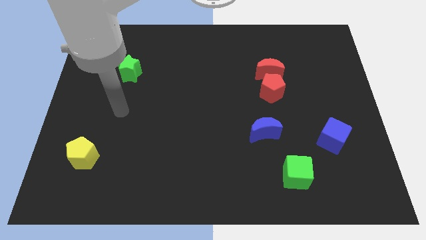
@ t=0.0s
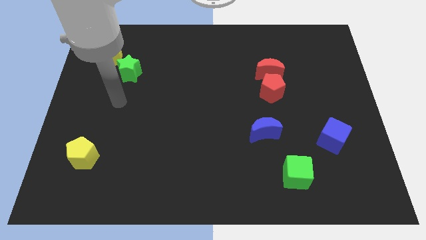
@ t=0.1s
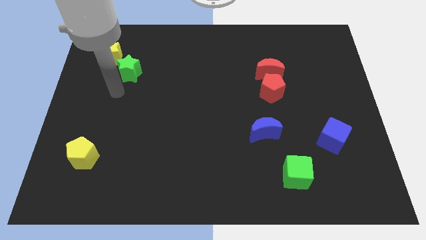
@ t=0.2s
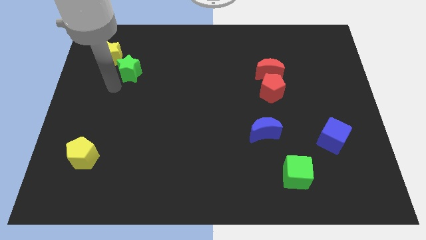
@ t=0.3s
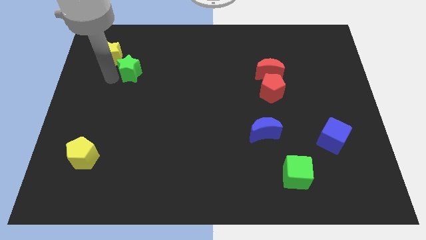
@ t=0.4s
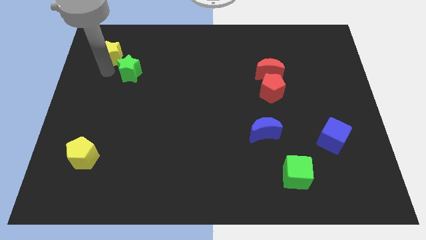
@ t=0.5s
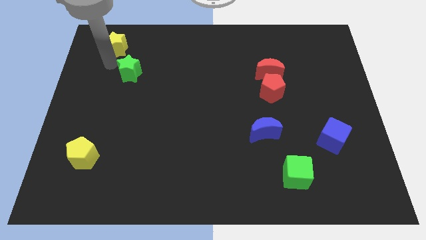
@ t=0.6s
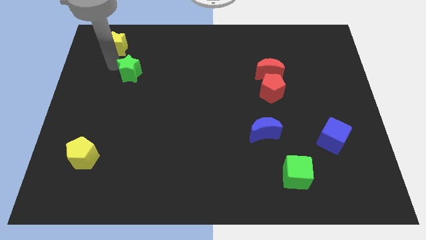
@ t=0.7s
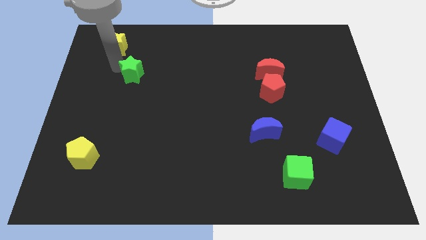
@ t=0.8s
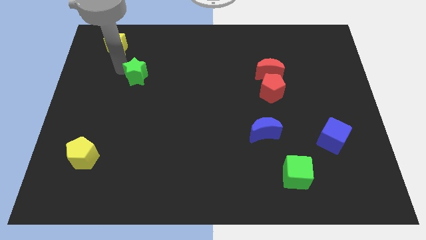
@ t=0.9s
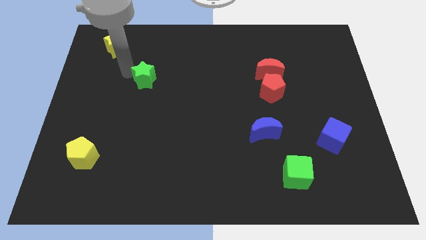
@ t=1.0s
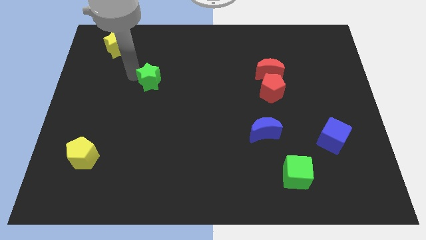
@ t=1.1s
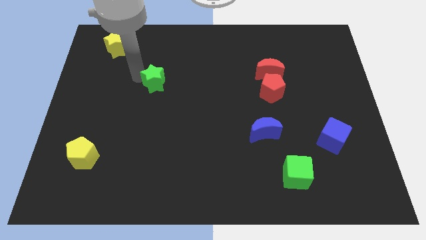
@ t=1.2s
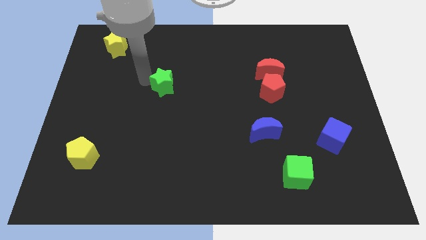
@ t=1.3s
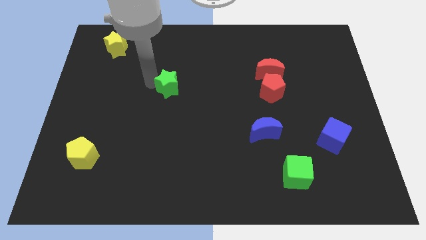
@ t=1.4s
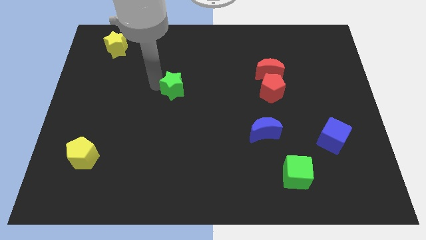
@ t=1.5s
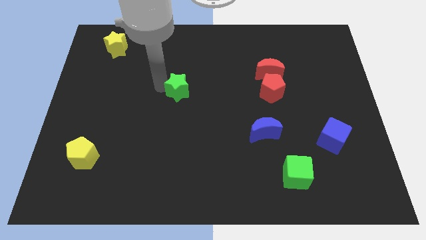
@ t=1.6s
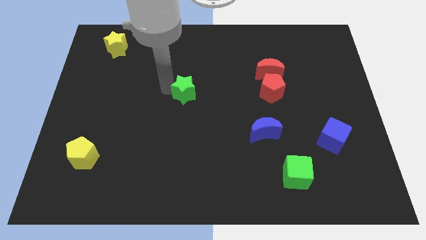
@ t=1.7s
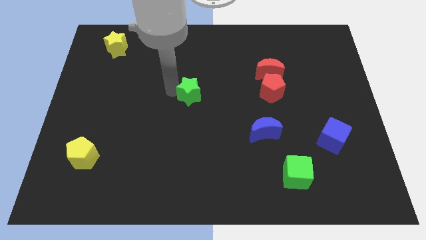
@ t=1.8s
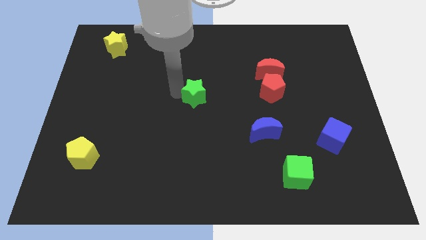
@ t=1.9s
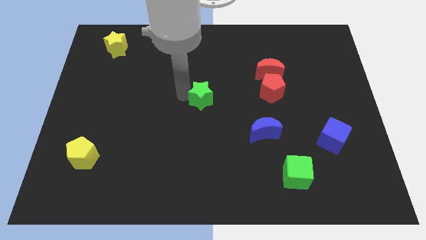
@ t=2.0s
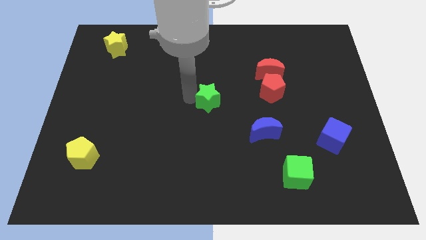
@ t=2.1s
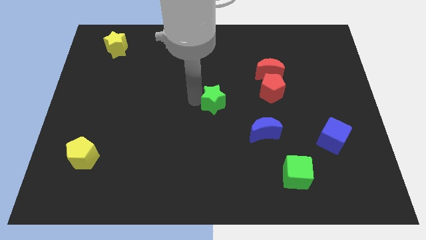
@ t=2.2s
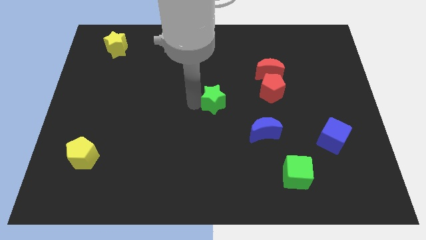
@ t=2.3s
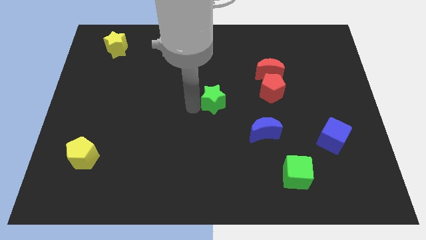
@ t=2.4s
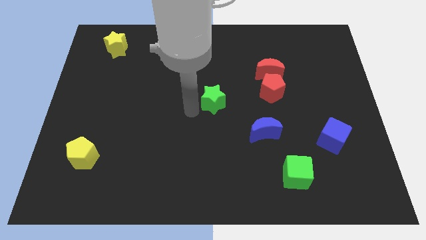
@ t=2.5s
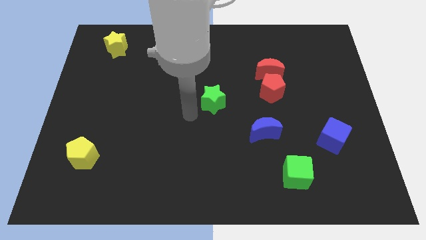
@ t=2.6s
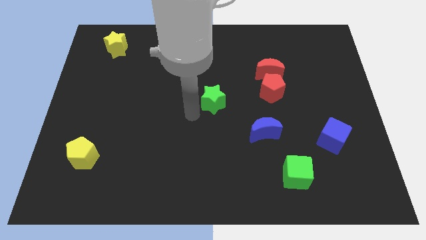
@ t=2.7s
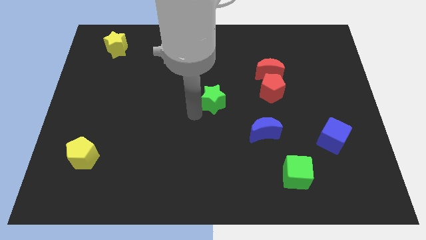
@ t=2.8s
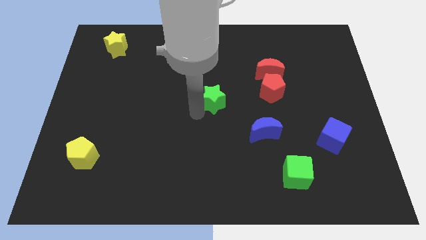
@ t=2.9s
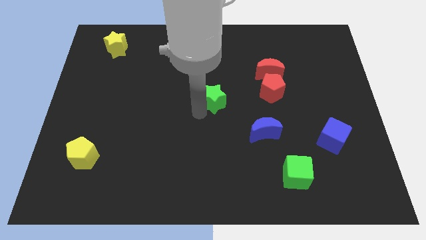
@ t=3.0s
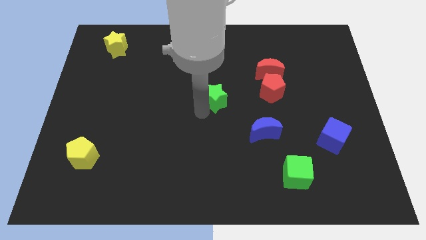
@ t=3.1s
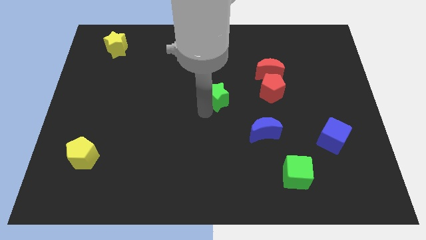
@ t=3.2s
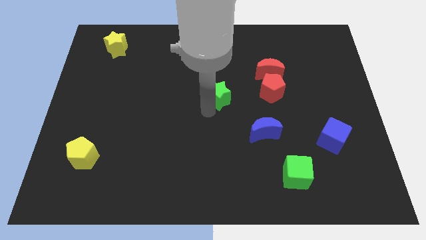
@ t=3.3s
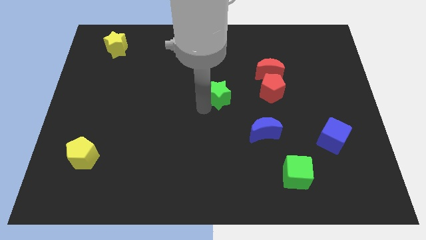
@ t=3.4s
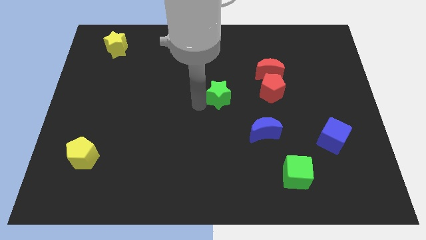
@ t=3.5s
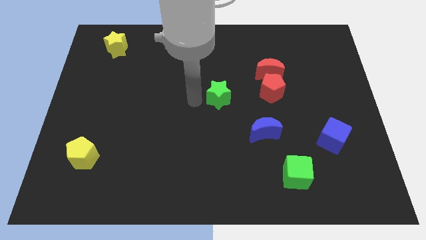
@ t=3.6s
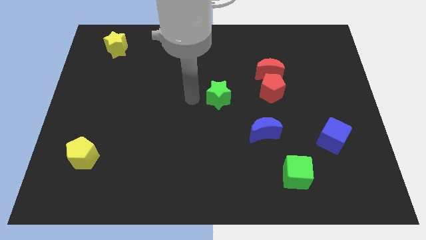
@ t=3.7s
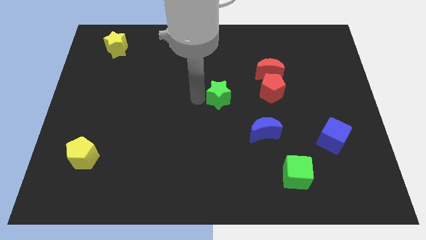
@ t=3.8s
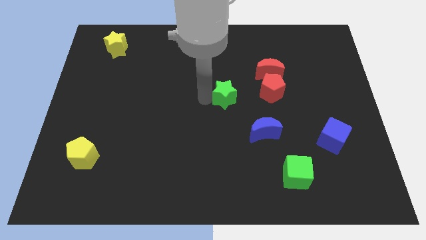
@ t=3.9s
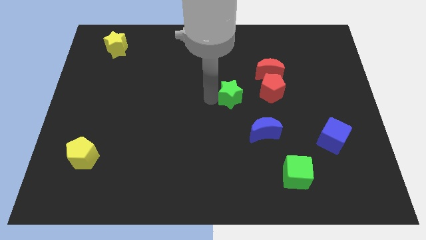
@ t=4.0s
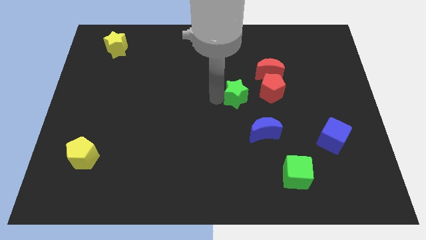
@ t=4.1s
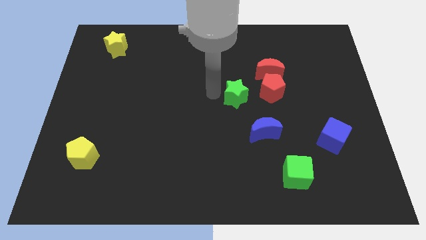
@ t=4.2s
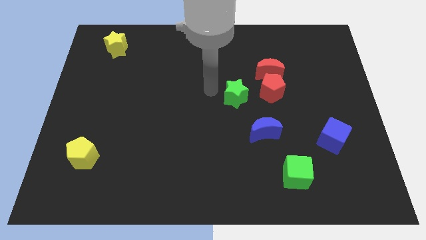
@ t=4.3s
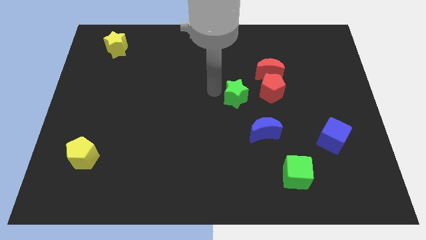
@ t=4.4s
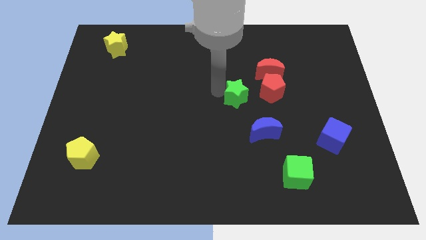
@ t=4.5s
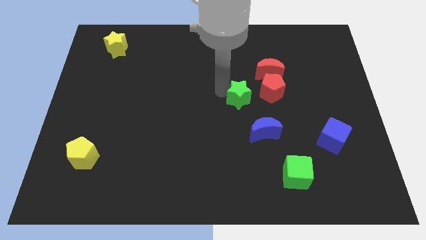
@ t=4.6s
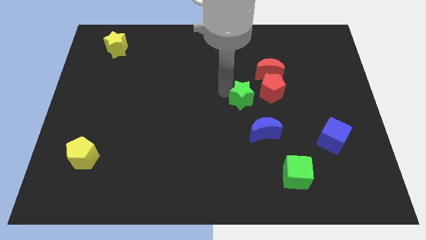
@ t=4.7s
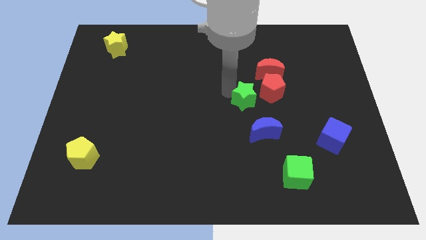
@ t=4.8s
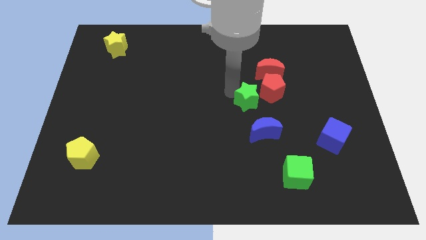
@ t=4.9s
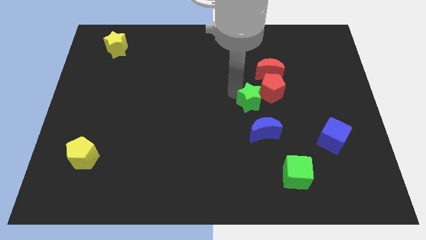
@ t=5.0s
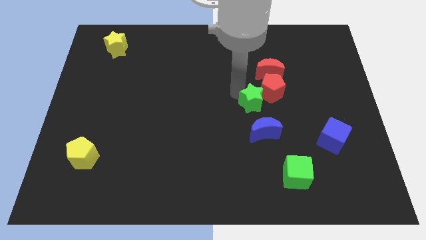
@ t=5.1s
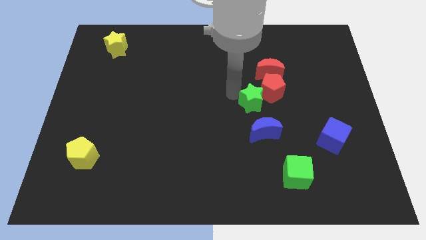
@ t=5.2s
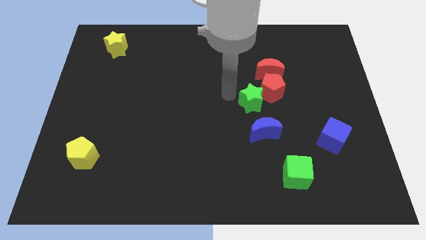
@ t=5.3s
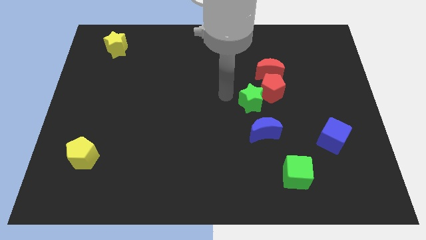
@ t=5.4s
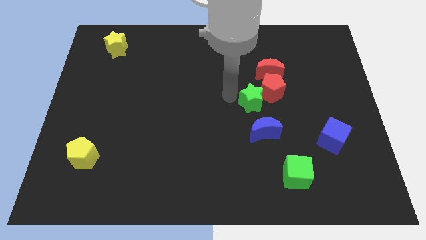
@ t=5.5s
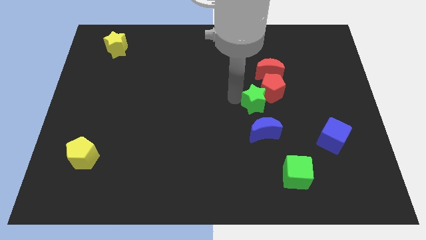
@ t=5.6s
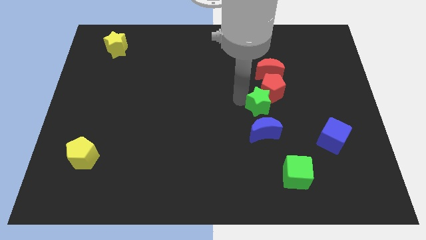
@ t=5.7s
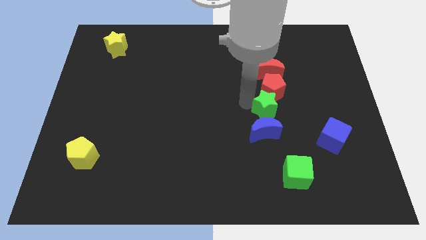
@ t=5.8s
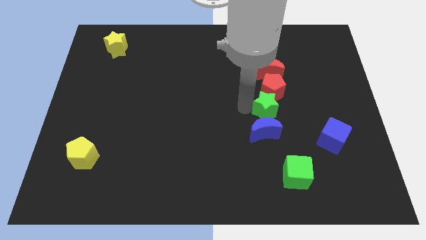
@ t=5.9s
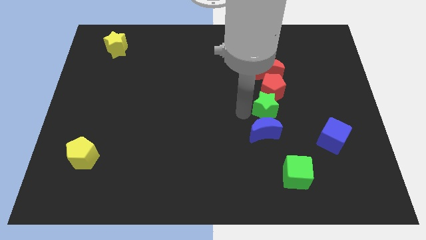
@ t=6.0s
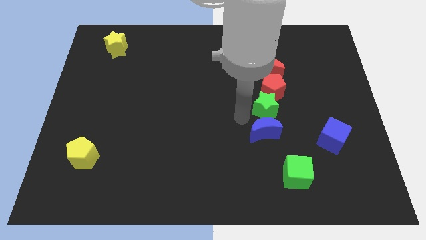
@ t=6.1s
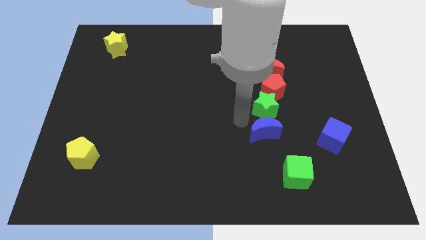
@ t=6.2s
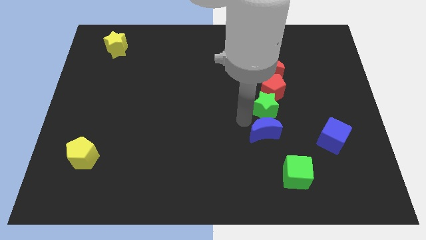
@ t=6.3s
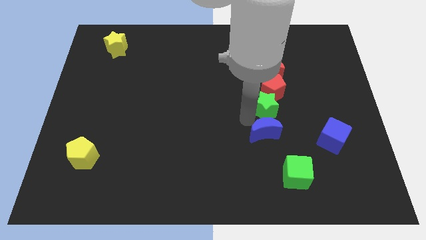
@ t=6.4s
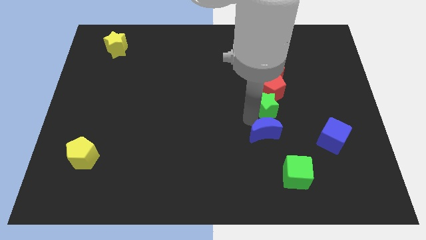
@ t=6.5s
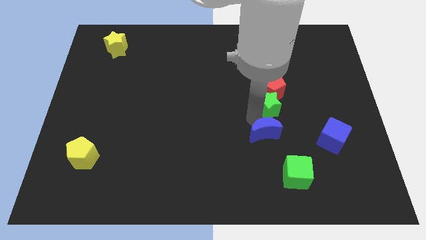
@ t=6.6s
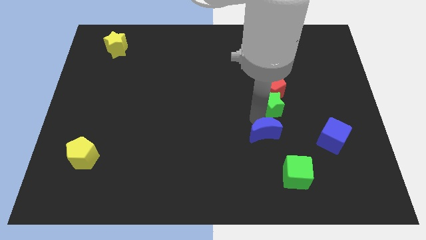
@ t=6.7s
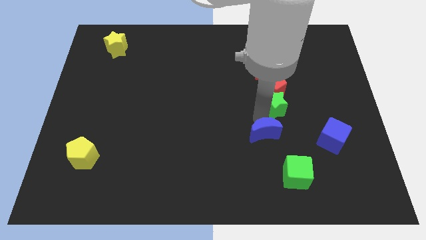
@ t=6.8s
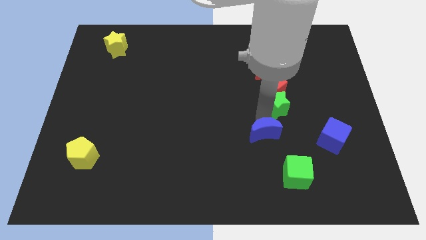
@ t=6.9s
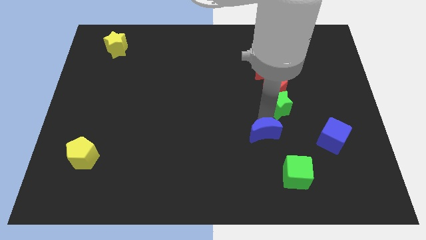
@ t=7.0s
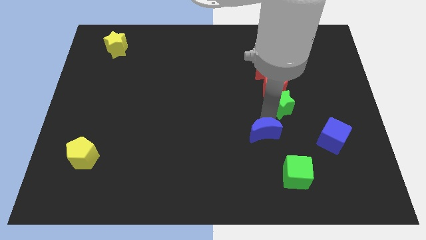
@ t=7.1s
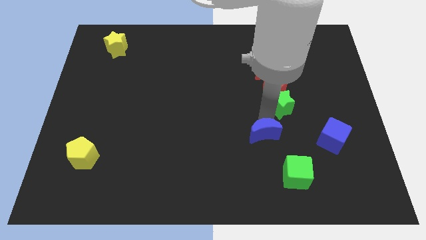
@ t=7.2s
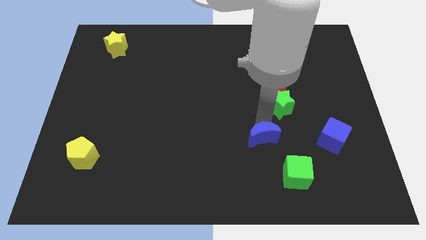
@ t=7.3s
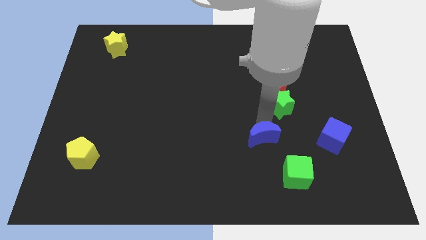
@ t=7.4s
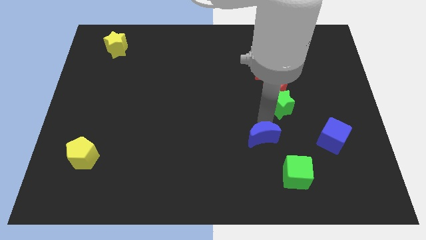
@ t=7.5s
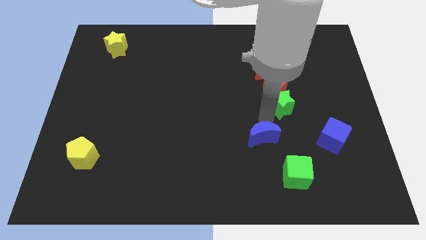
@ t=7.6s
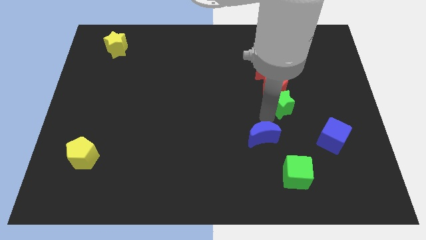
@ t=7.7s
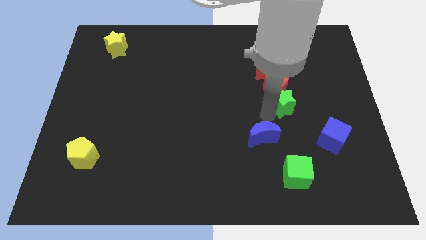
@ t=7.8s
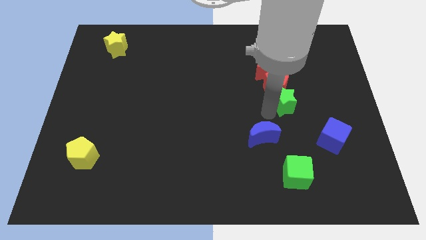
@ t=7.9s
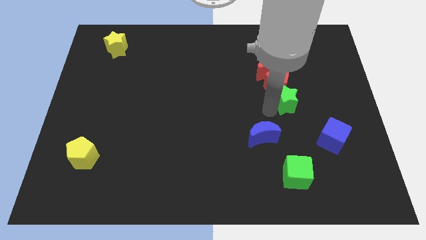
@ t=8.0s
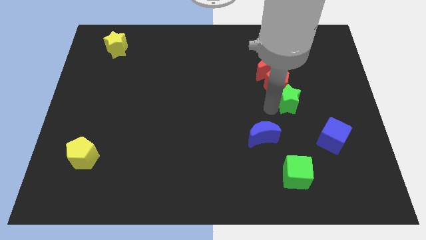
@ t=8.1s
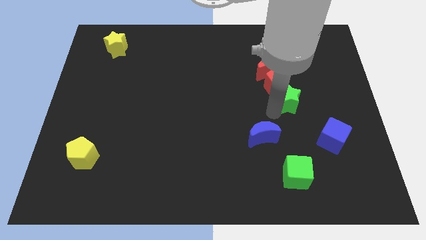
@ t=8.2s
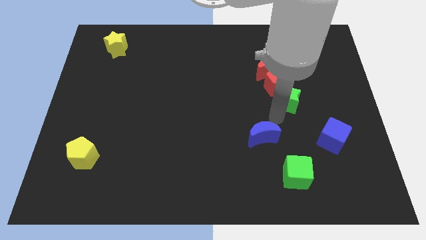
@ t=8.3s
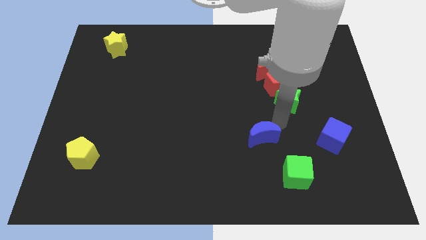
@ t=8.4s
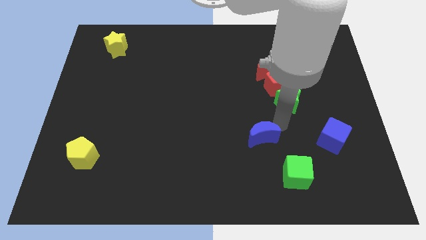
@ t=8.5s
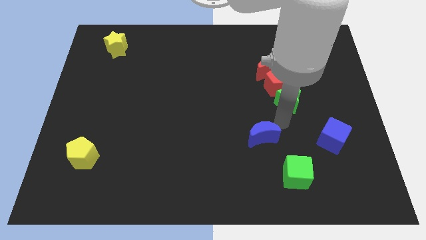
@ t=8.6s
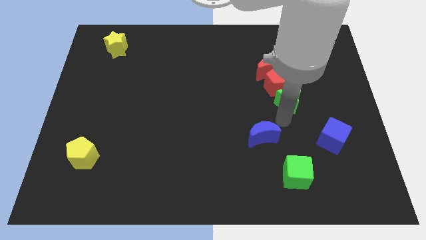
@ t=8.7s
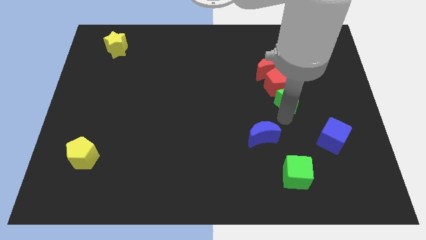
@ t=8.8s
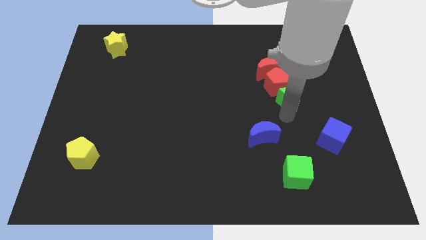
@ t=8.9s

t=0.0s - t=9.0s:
push the green star diagonally down and to the right of the red moon
